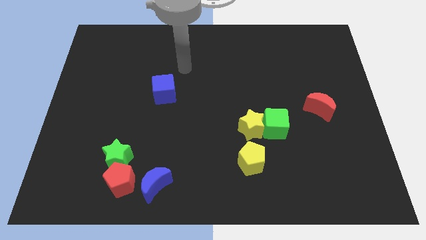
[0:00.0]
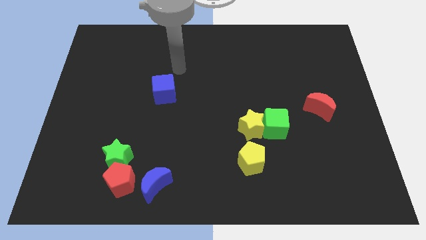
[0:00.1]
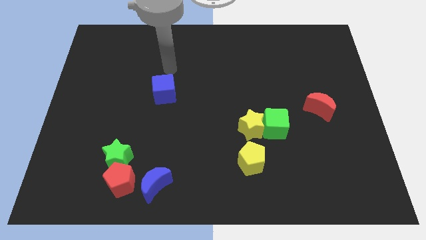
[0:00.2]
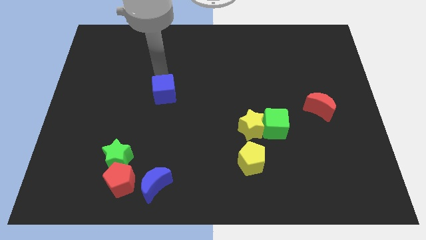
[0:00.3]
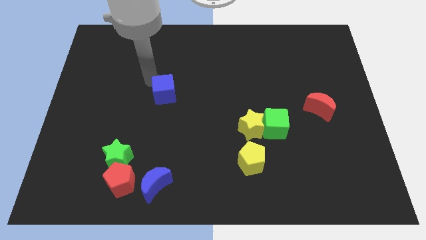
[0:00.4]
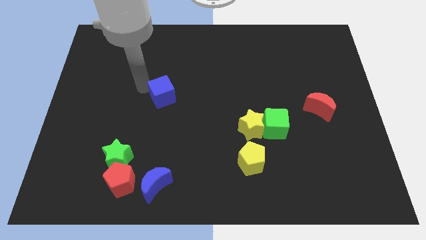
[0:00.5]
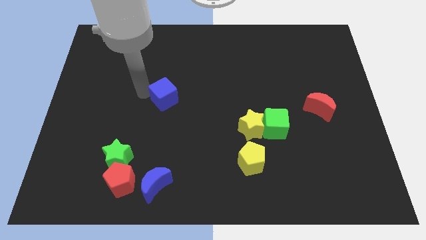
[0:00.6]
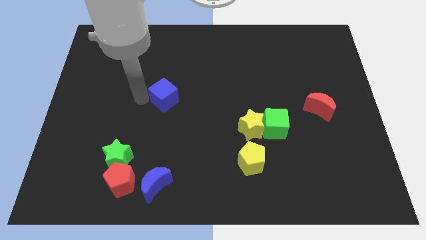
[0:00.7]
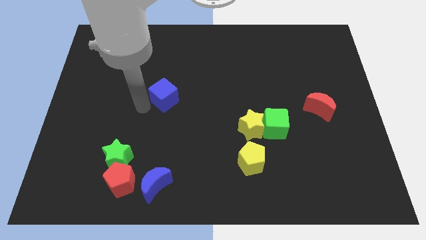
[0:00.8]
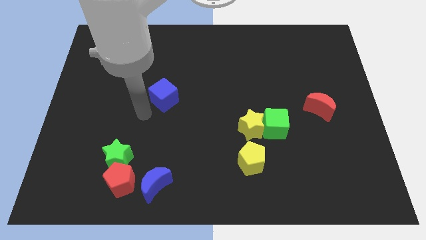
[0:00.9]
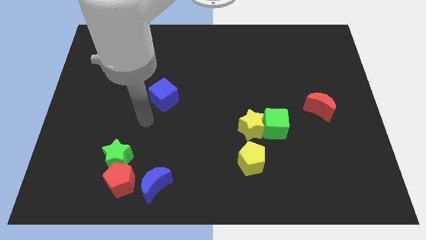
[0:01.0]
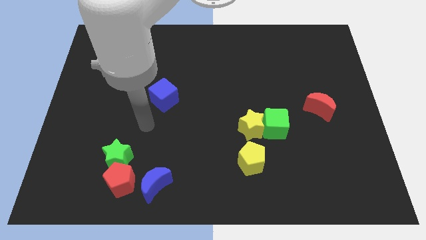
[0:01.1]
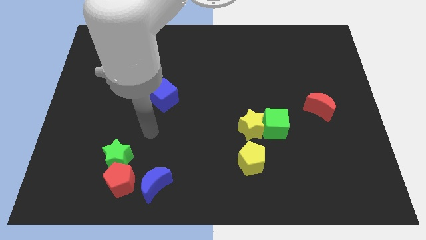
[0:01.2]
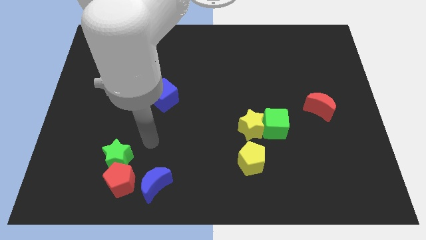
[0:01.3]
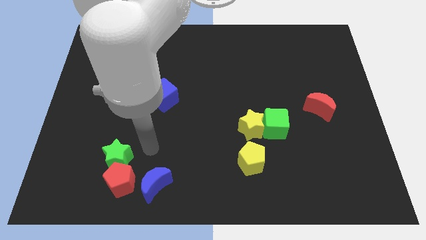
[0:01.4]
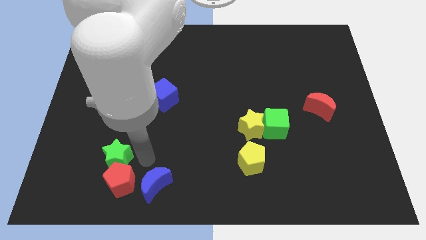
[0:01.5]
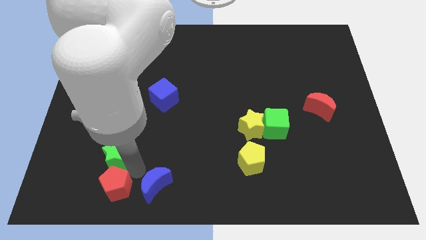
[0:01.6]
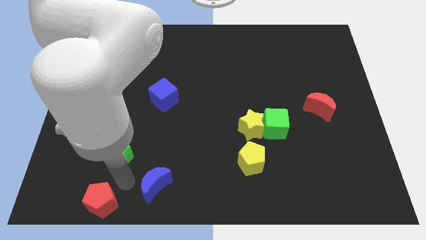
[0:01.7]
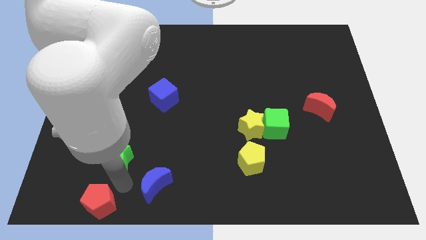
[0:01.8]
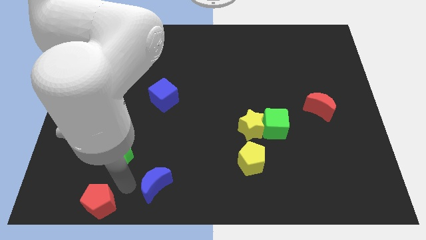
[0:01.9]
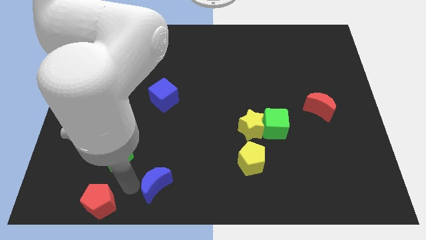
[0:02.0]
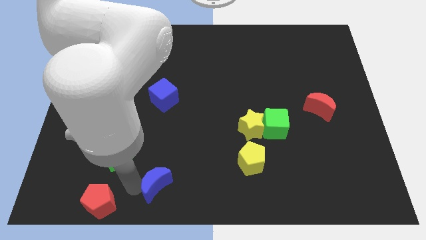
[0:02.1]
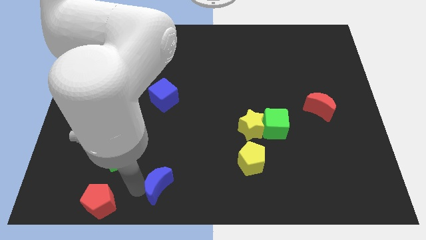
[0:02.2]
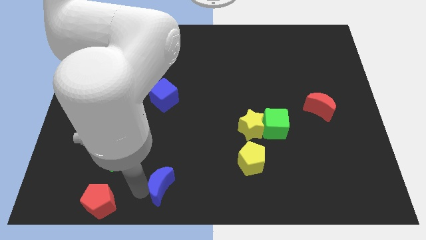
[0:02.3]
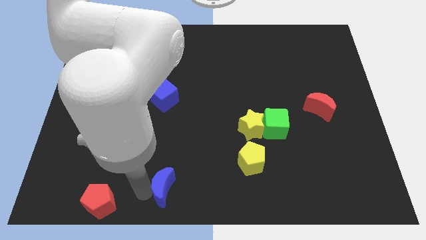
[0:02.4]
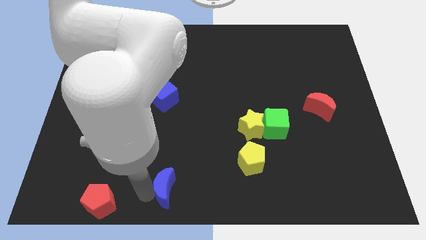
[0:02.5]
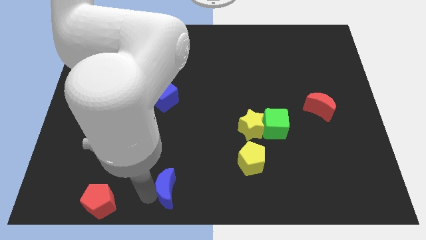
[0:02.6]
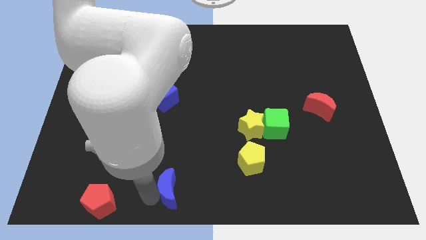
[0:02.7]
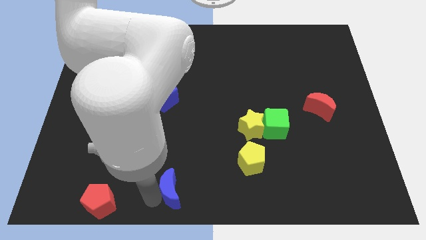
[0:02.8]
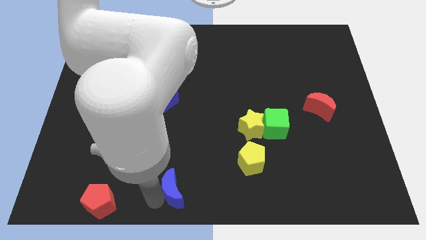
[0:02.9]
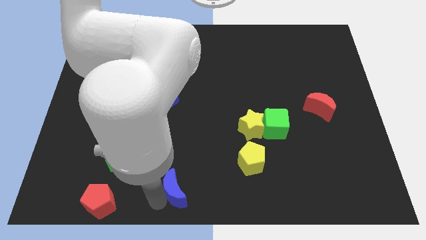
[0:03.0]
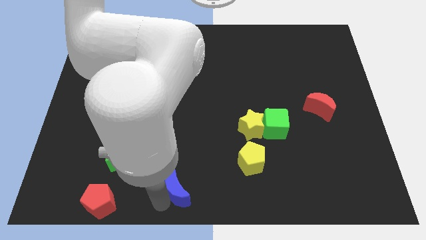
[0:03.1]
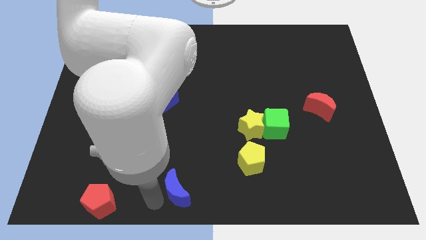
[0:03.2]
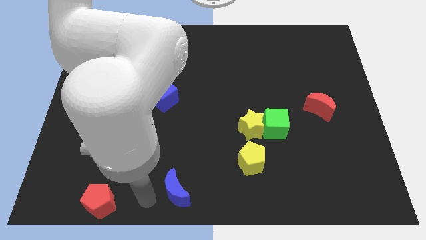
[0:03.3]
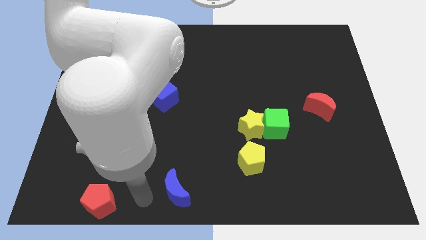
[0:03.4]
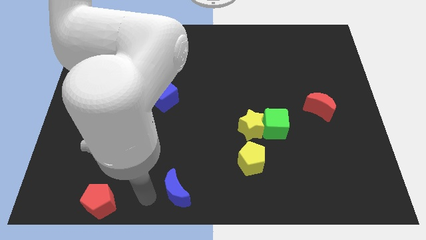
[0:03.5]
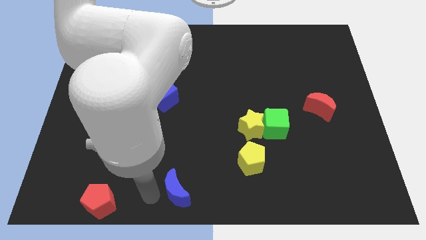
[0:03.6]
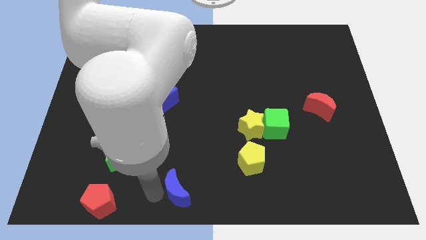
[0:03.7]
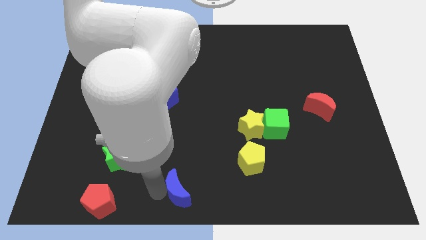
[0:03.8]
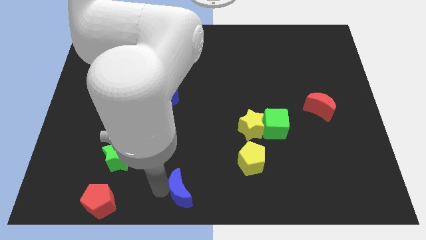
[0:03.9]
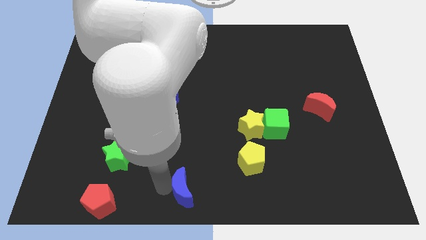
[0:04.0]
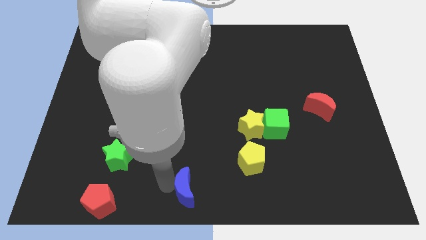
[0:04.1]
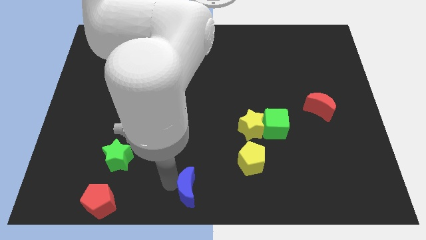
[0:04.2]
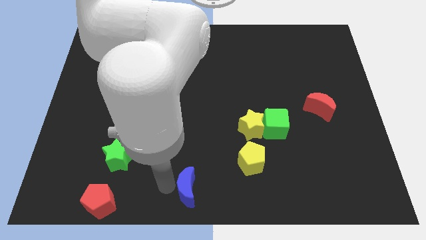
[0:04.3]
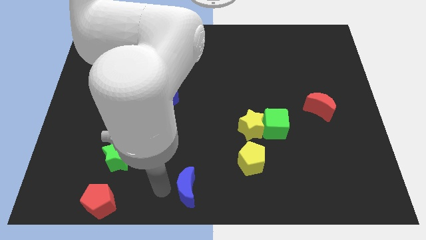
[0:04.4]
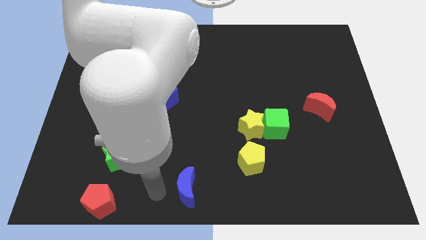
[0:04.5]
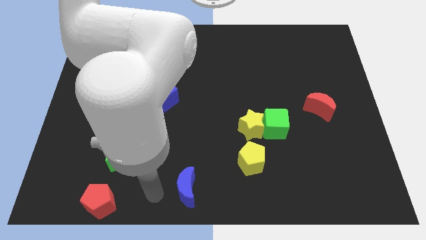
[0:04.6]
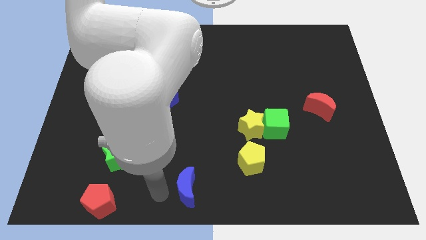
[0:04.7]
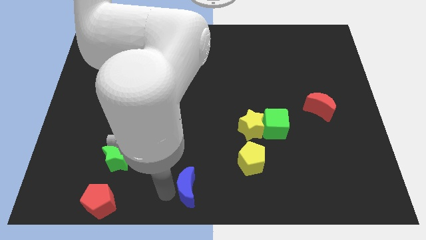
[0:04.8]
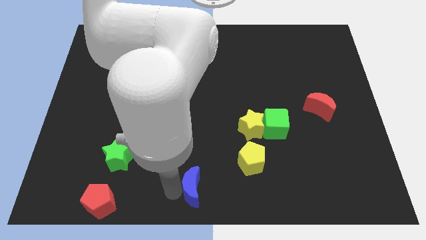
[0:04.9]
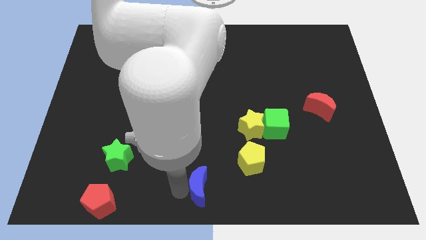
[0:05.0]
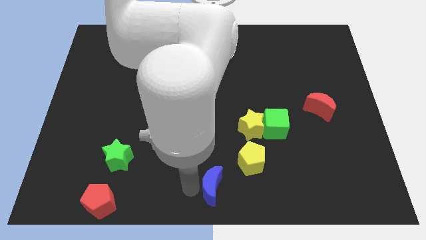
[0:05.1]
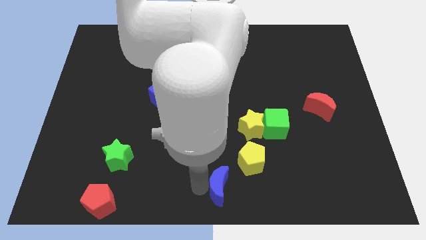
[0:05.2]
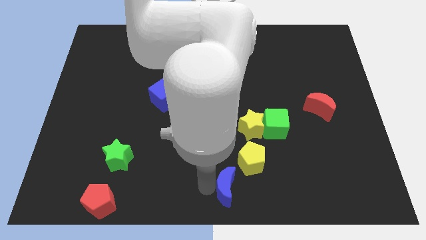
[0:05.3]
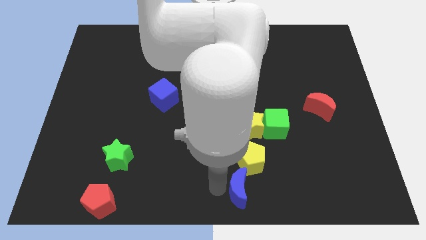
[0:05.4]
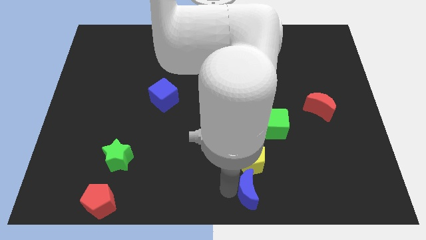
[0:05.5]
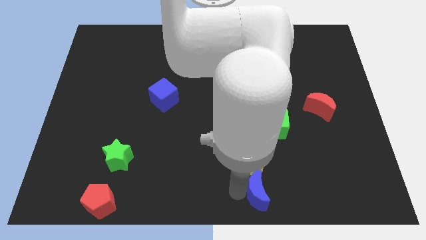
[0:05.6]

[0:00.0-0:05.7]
move the blue moon right

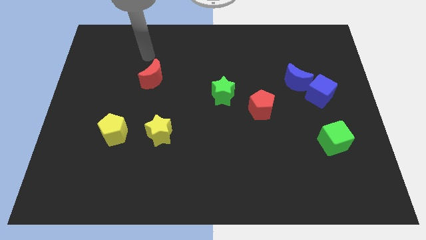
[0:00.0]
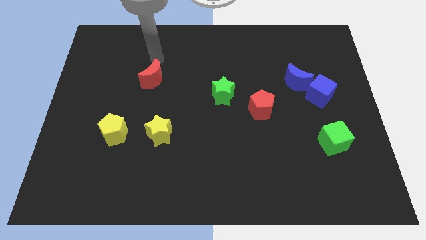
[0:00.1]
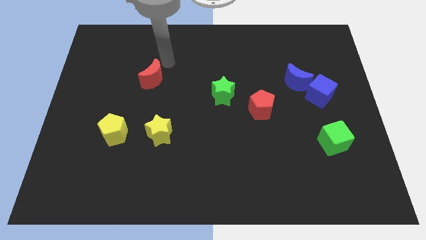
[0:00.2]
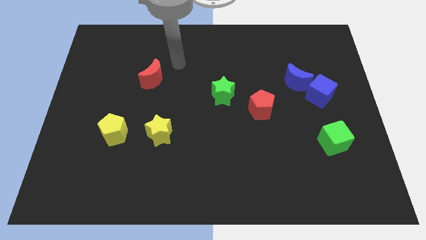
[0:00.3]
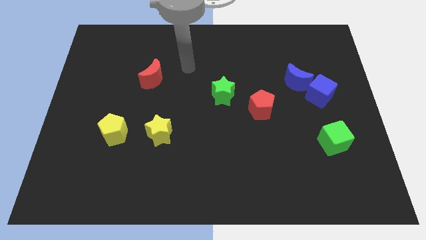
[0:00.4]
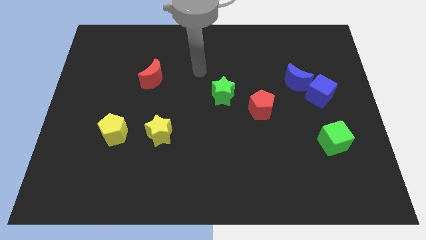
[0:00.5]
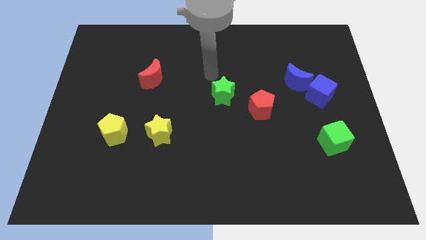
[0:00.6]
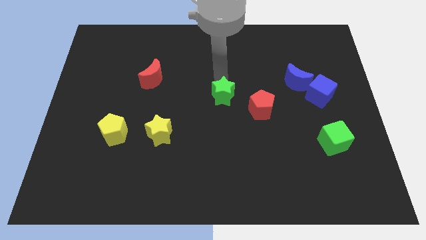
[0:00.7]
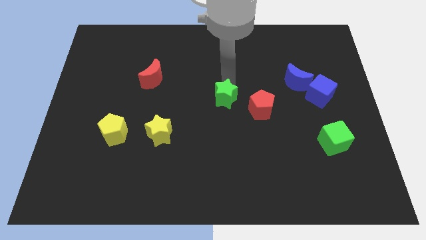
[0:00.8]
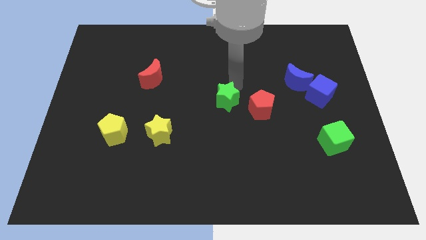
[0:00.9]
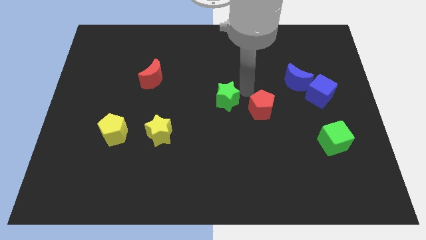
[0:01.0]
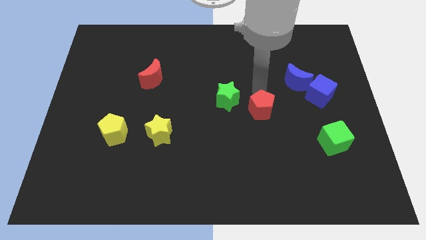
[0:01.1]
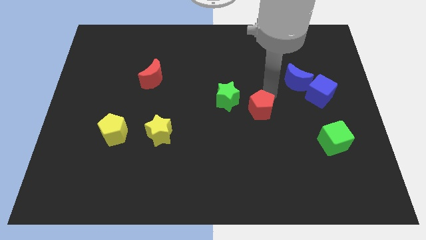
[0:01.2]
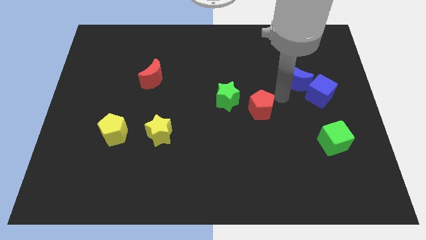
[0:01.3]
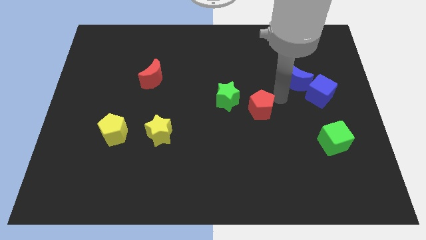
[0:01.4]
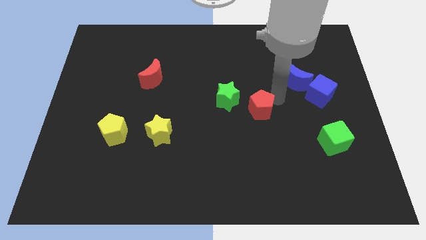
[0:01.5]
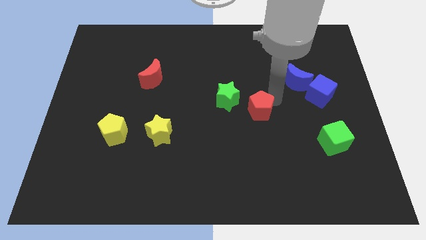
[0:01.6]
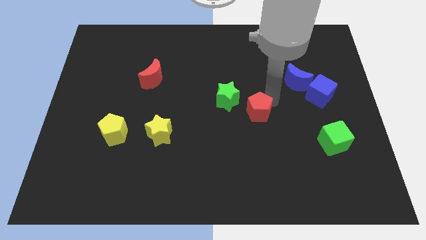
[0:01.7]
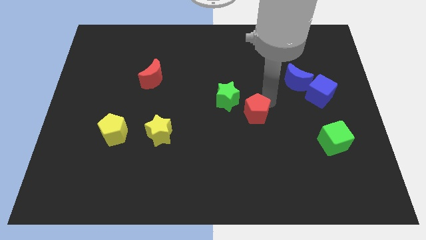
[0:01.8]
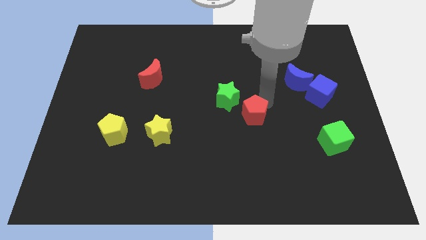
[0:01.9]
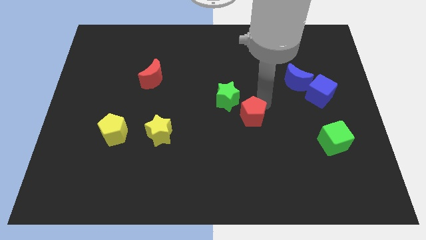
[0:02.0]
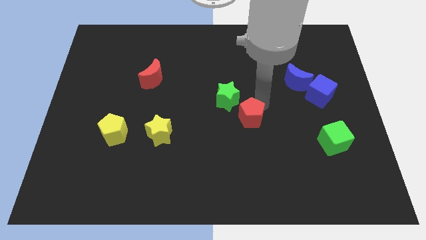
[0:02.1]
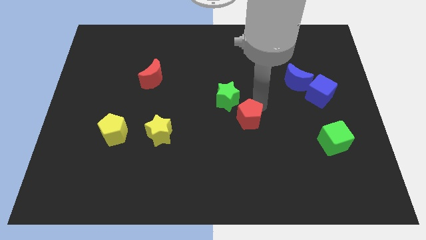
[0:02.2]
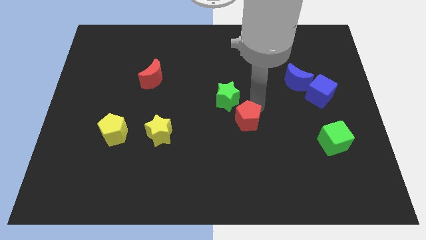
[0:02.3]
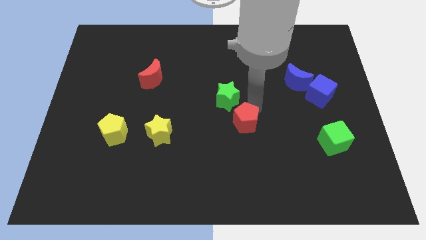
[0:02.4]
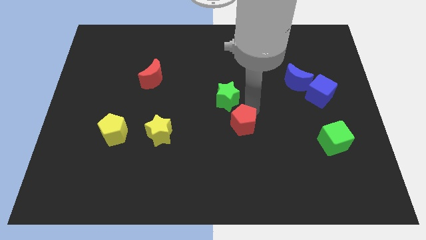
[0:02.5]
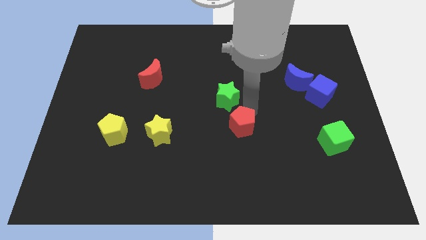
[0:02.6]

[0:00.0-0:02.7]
push the red pentagon downwards and then left a little bit
